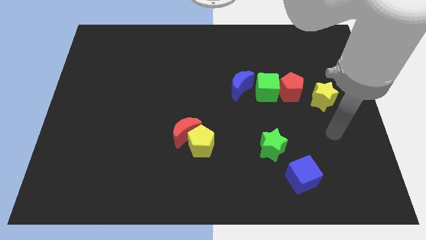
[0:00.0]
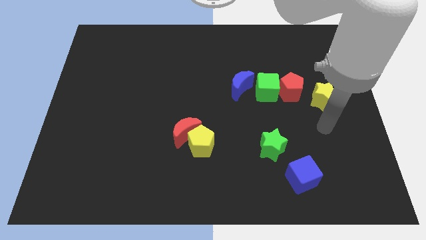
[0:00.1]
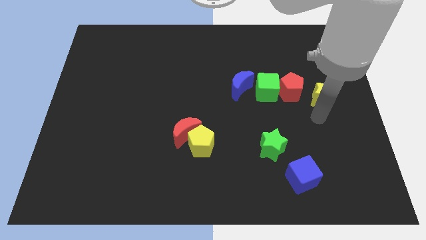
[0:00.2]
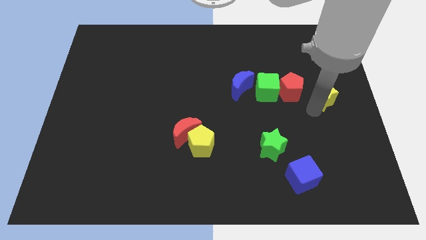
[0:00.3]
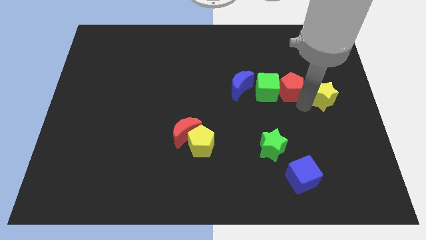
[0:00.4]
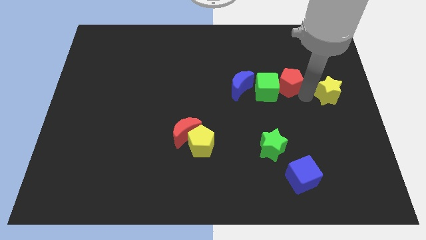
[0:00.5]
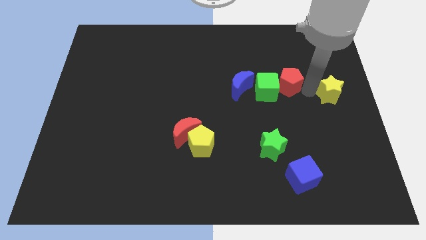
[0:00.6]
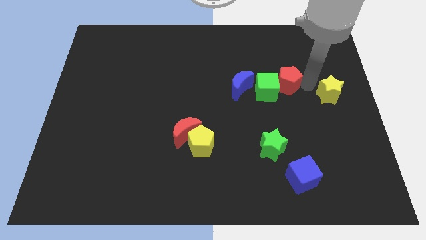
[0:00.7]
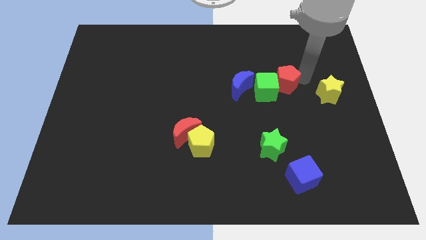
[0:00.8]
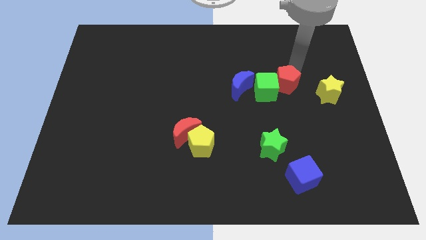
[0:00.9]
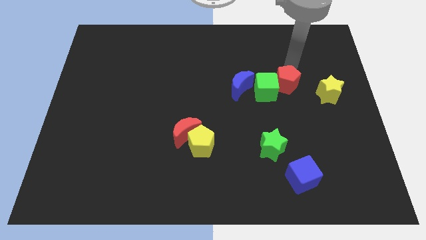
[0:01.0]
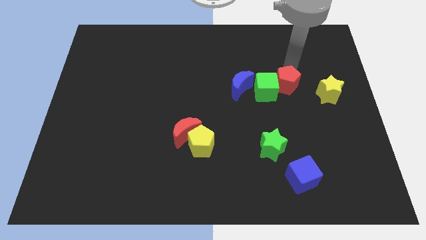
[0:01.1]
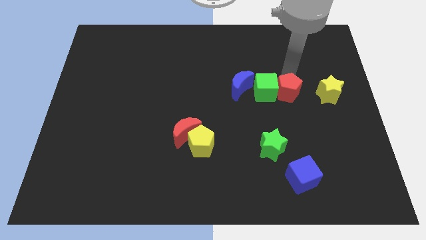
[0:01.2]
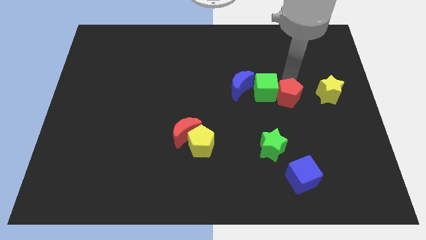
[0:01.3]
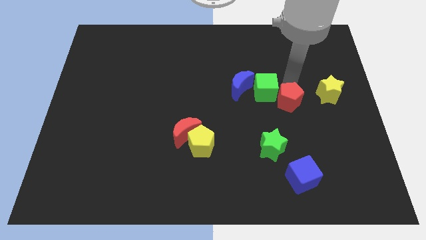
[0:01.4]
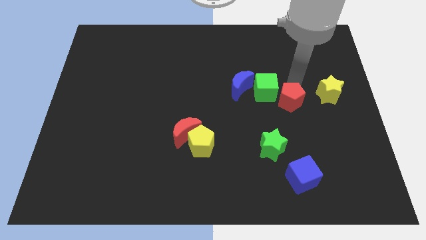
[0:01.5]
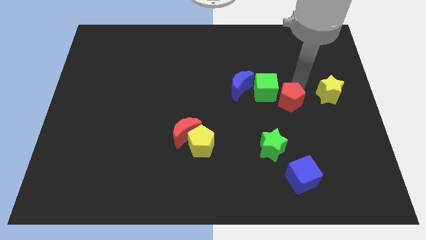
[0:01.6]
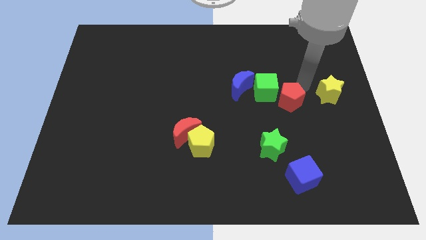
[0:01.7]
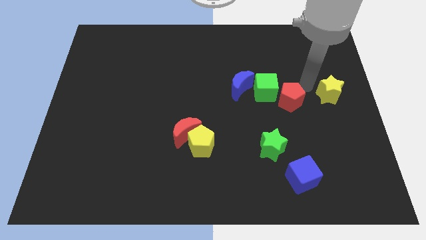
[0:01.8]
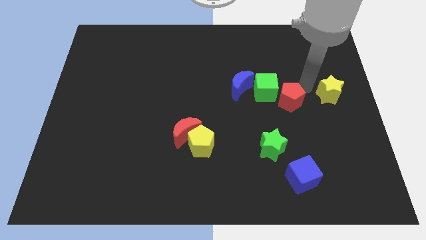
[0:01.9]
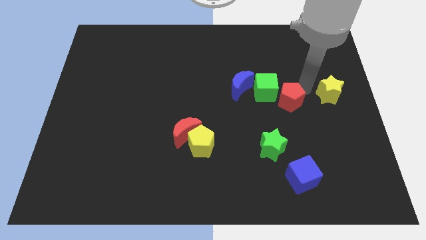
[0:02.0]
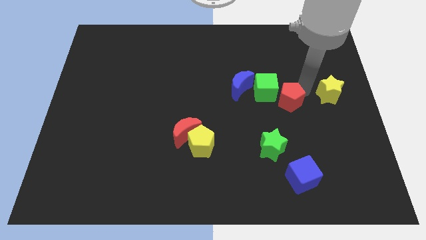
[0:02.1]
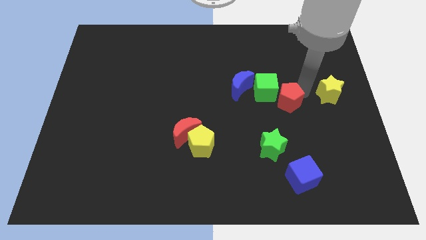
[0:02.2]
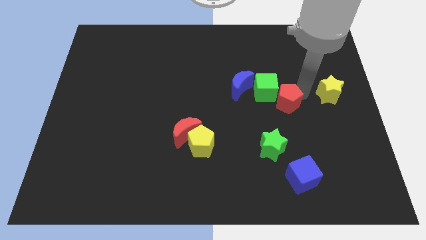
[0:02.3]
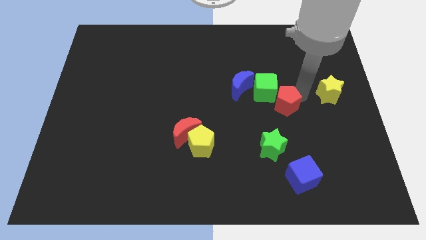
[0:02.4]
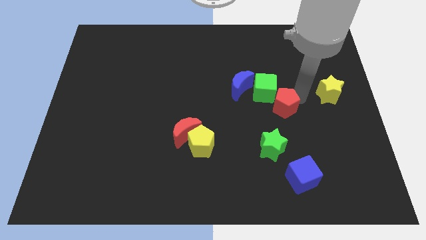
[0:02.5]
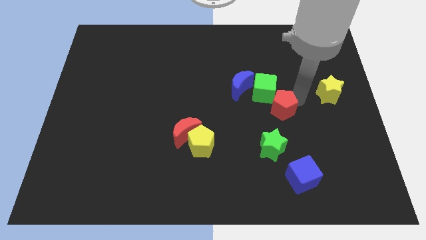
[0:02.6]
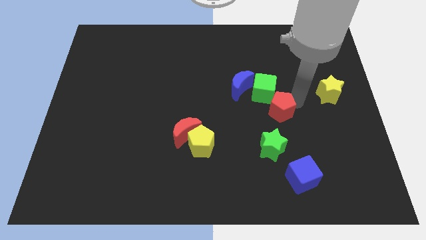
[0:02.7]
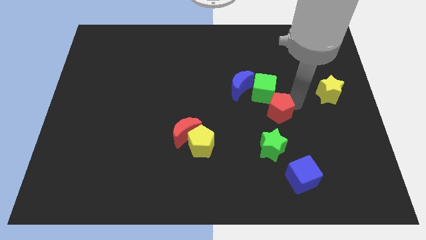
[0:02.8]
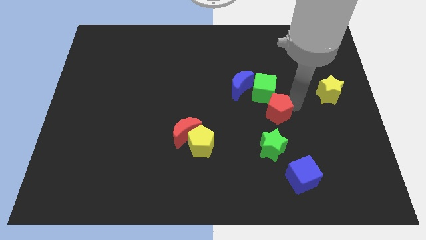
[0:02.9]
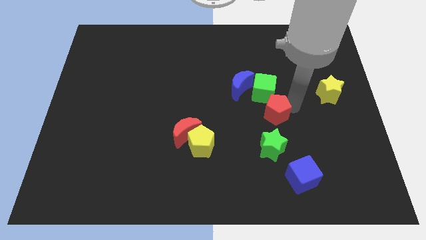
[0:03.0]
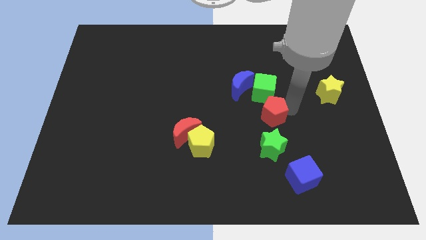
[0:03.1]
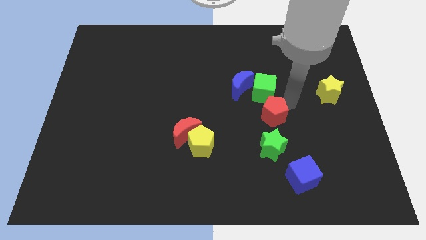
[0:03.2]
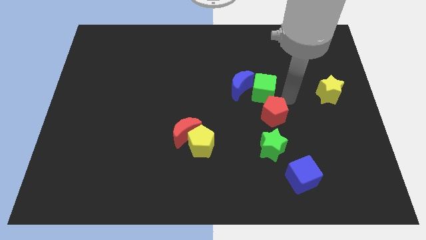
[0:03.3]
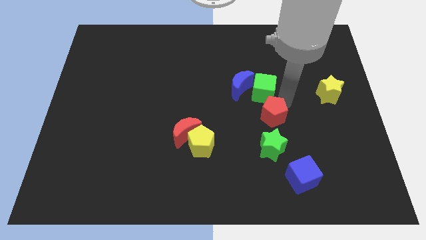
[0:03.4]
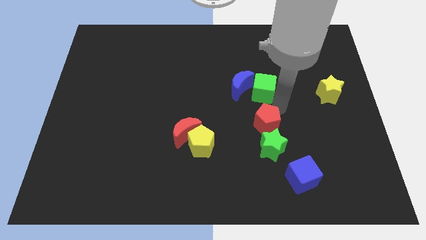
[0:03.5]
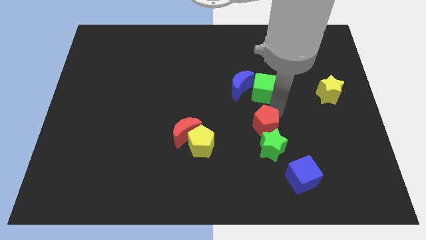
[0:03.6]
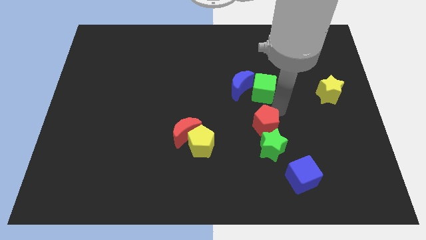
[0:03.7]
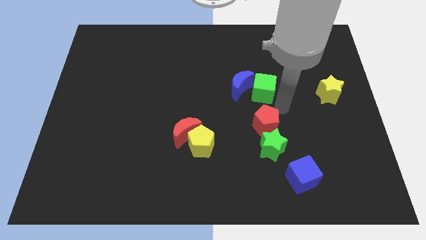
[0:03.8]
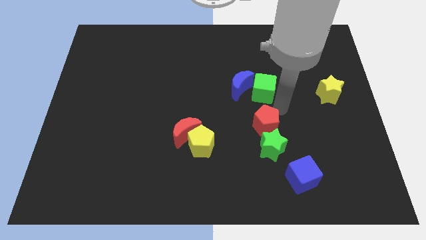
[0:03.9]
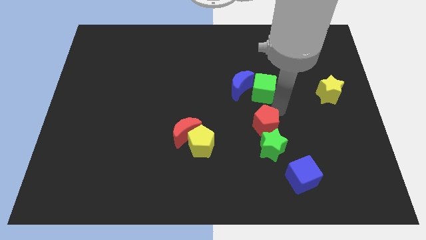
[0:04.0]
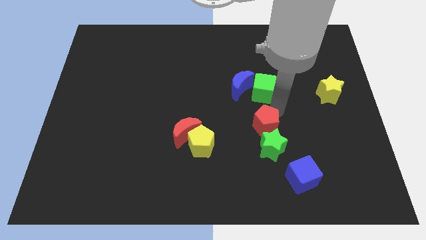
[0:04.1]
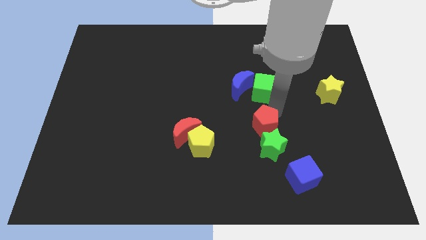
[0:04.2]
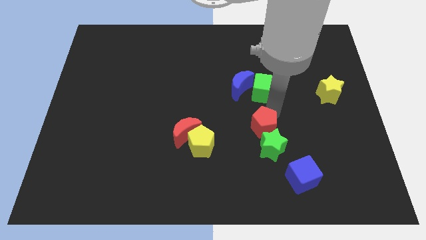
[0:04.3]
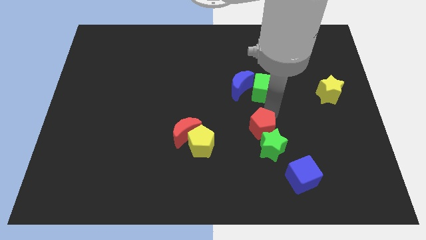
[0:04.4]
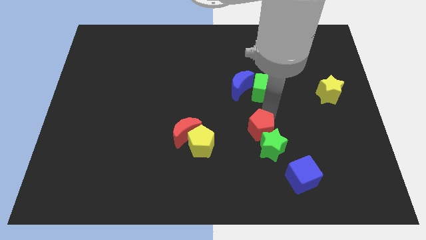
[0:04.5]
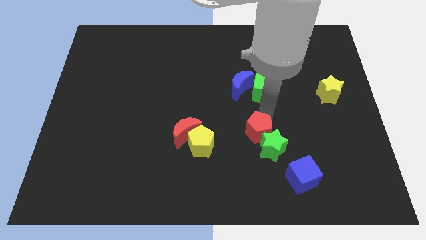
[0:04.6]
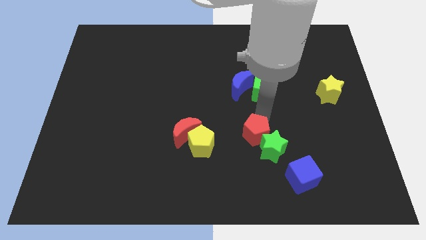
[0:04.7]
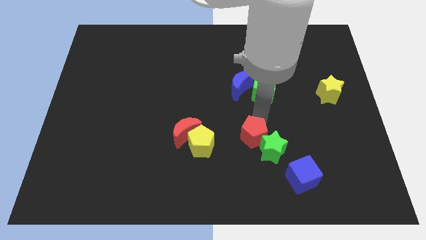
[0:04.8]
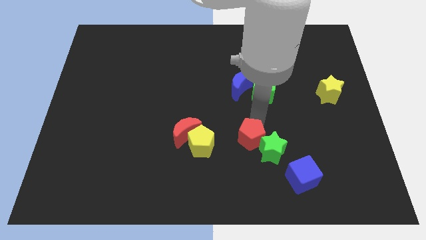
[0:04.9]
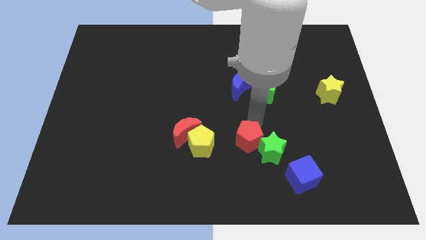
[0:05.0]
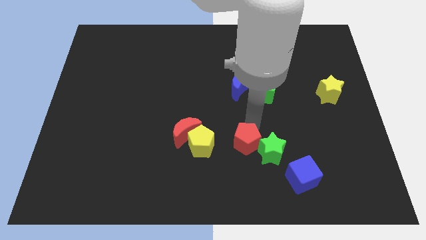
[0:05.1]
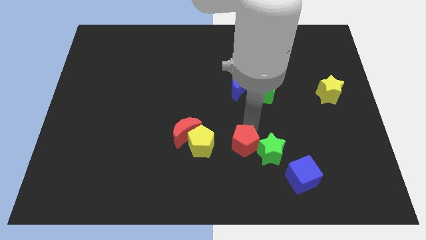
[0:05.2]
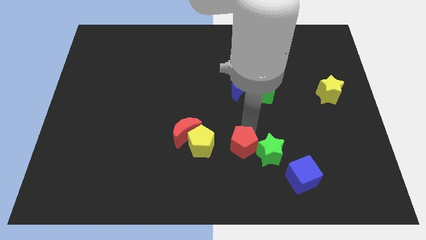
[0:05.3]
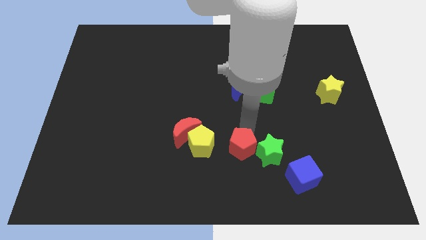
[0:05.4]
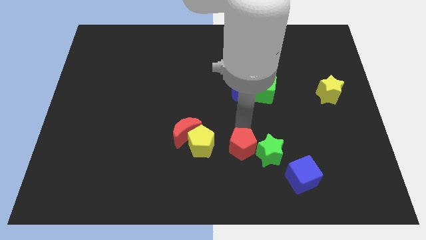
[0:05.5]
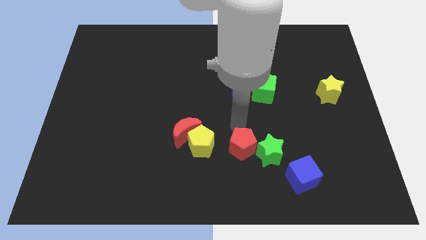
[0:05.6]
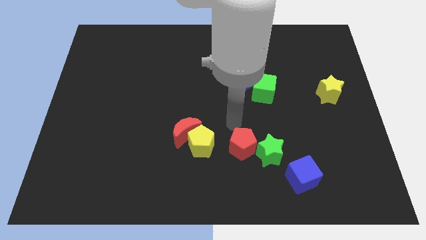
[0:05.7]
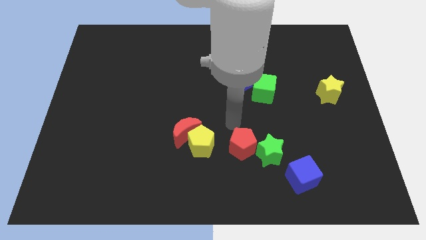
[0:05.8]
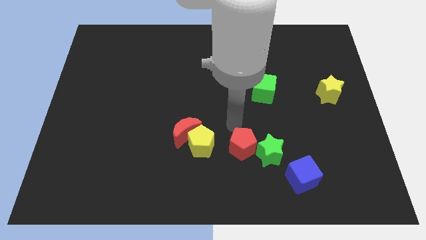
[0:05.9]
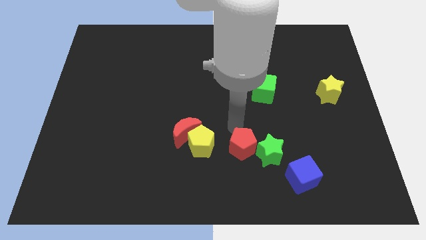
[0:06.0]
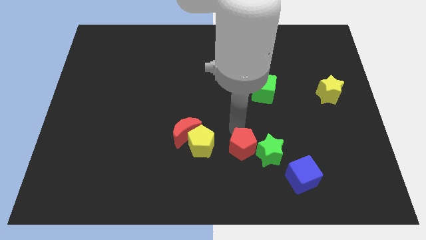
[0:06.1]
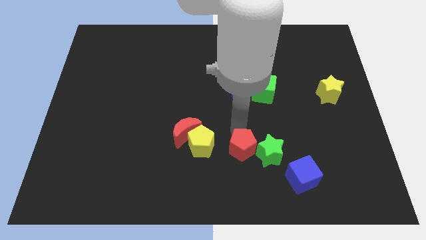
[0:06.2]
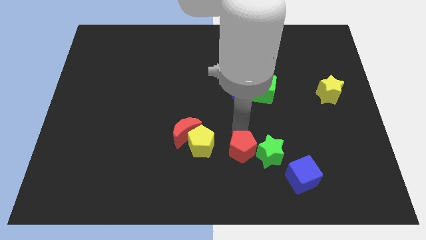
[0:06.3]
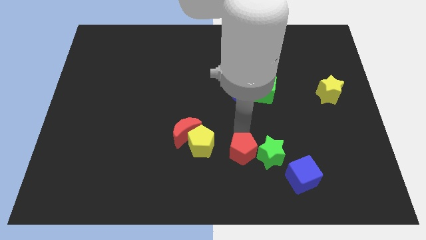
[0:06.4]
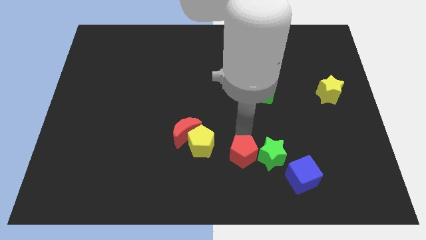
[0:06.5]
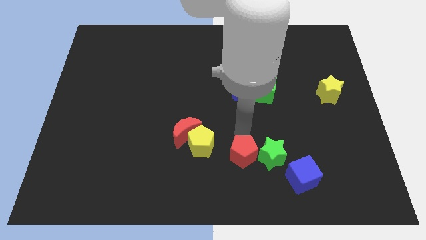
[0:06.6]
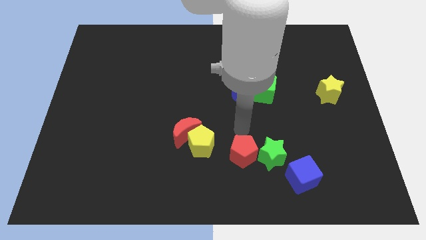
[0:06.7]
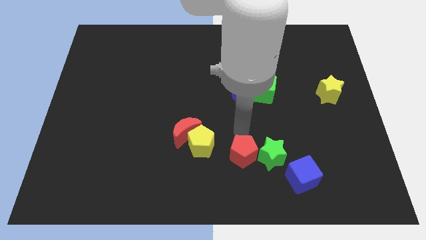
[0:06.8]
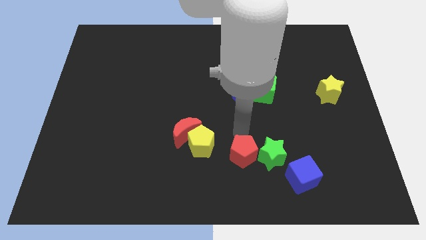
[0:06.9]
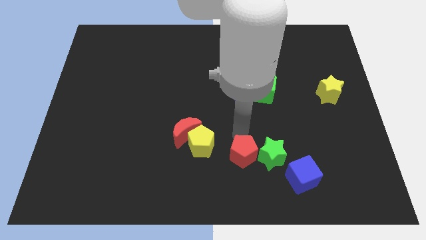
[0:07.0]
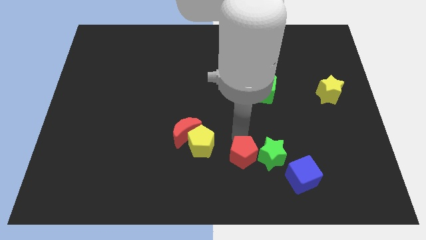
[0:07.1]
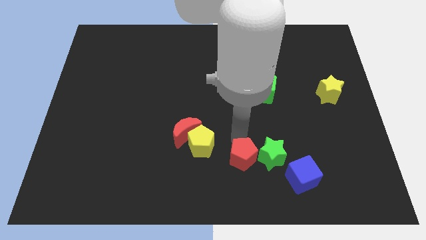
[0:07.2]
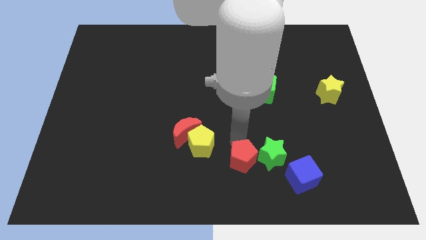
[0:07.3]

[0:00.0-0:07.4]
slide the red pentagon to the bottom
